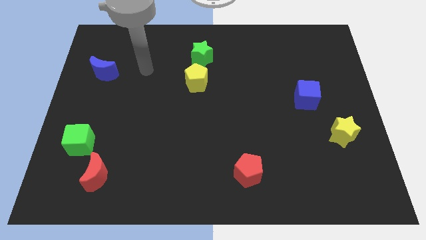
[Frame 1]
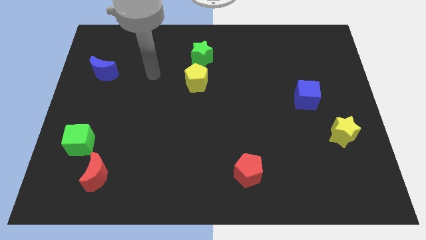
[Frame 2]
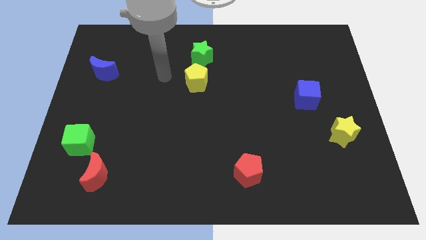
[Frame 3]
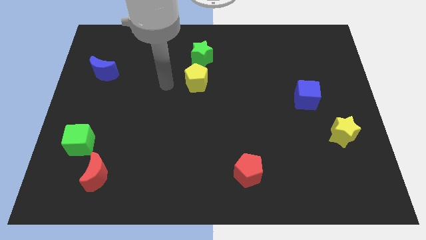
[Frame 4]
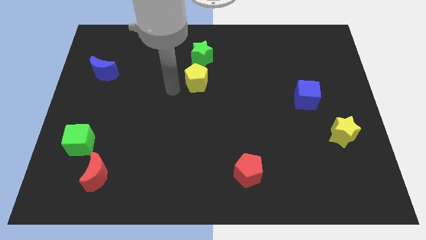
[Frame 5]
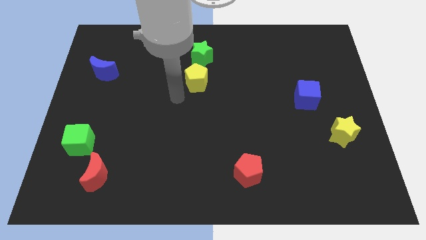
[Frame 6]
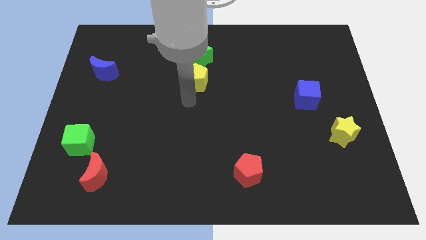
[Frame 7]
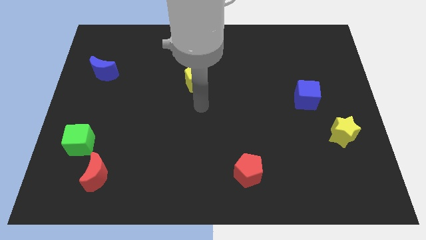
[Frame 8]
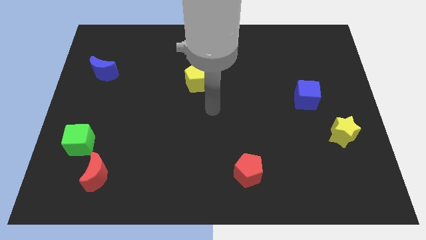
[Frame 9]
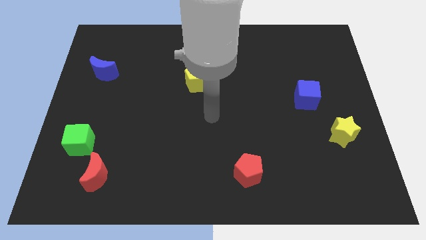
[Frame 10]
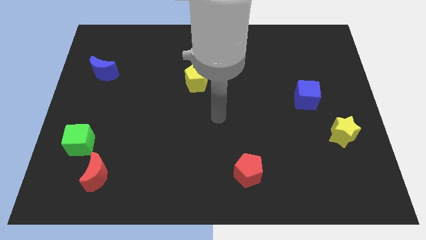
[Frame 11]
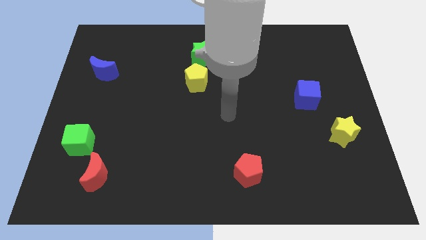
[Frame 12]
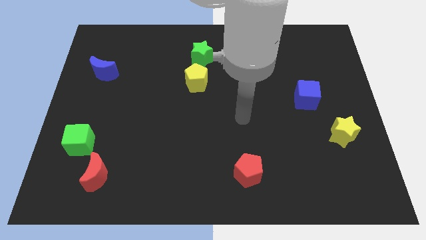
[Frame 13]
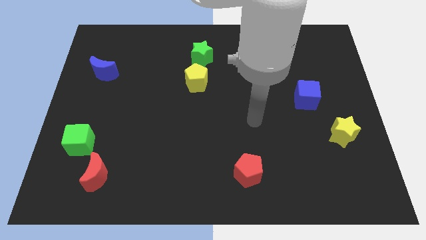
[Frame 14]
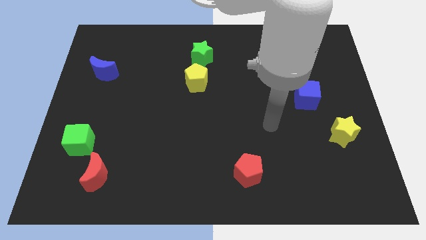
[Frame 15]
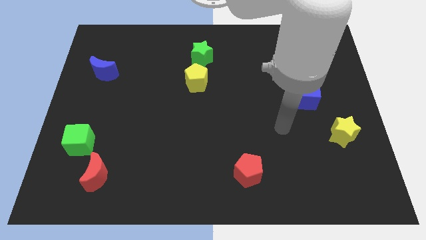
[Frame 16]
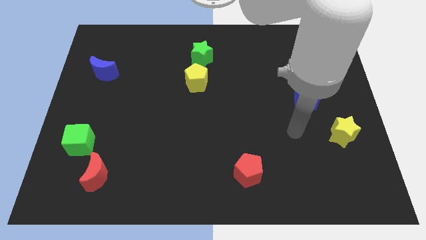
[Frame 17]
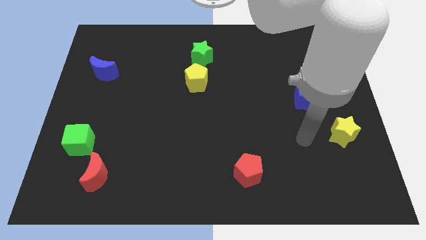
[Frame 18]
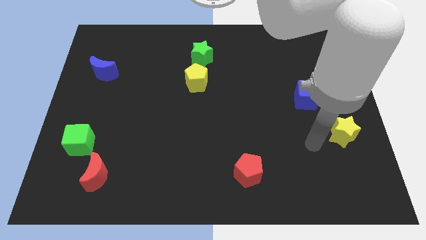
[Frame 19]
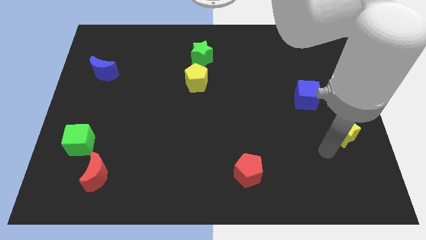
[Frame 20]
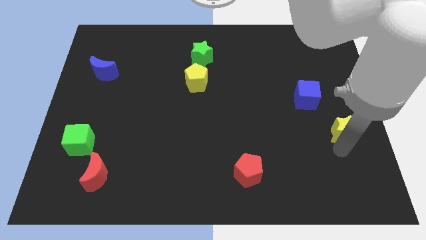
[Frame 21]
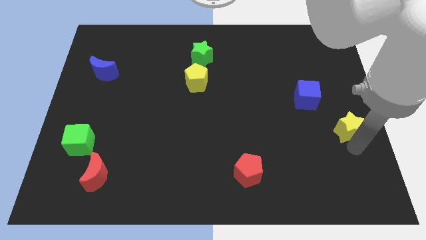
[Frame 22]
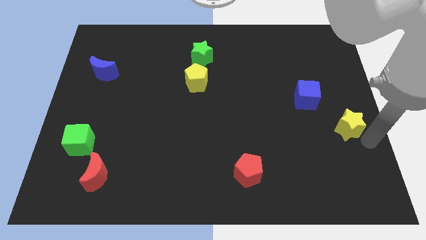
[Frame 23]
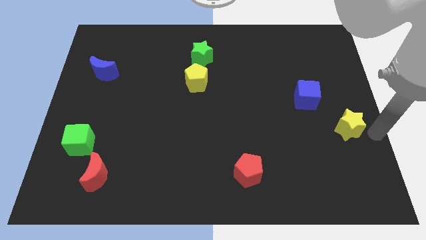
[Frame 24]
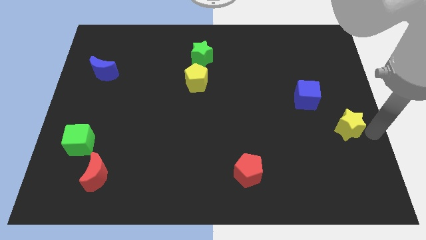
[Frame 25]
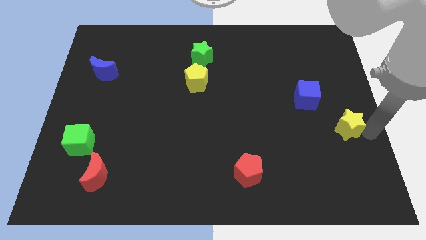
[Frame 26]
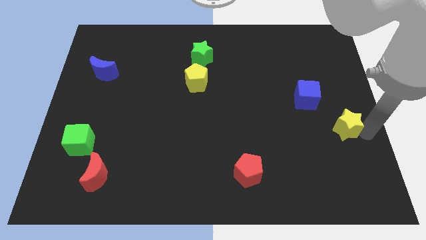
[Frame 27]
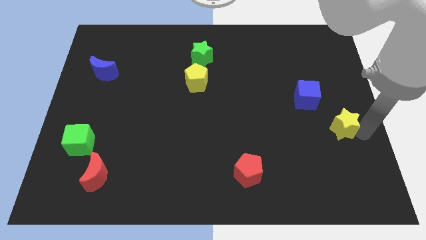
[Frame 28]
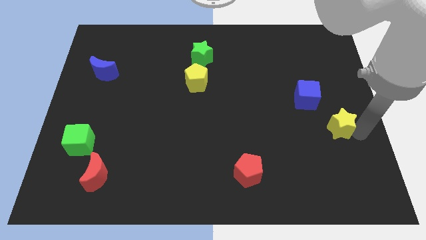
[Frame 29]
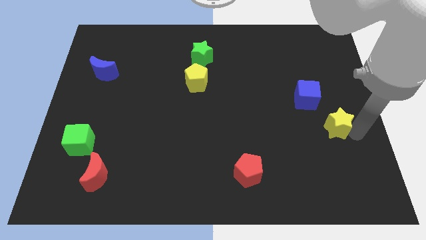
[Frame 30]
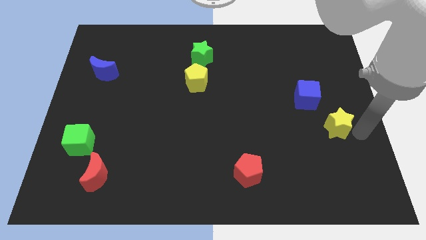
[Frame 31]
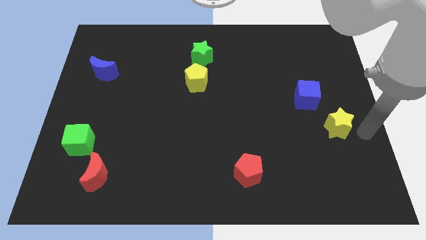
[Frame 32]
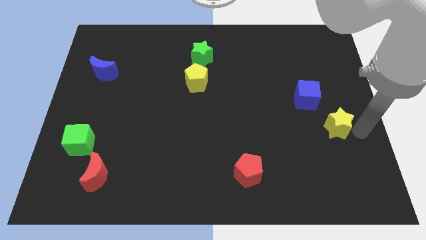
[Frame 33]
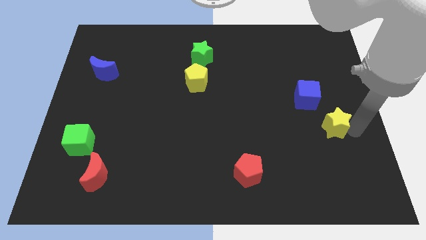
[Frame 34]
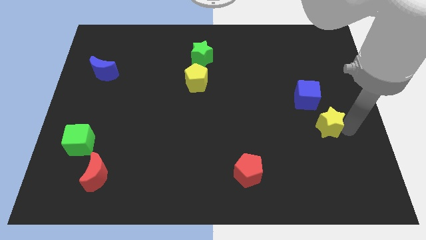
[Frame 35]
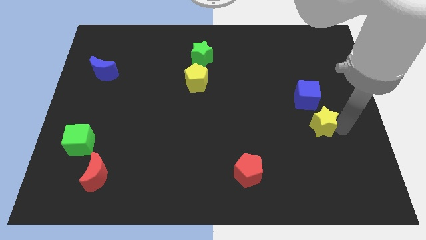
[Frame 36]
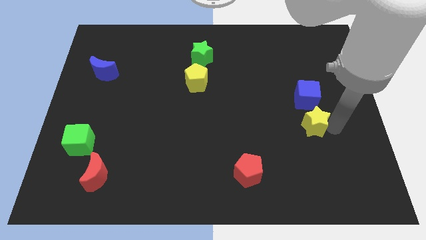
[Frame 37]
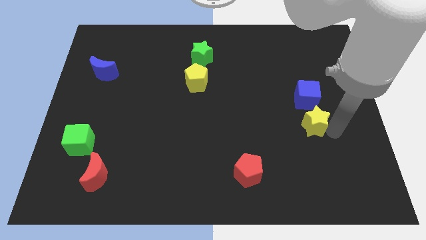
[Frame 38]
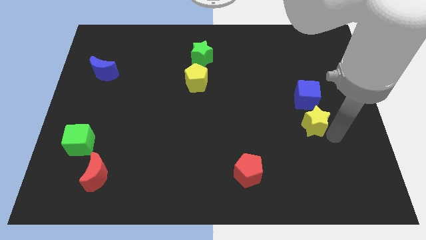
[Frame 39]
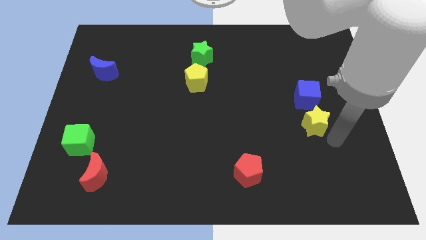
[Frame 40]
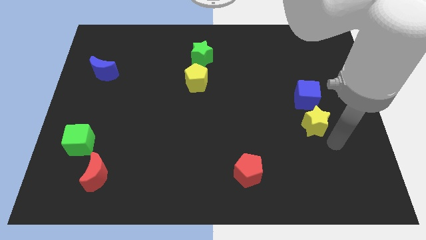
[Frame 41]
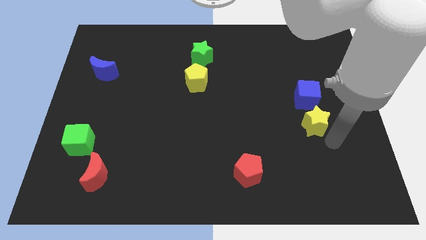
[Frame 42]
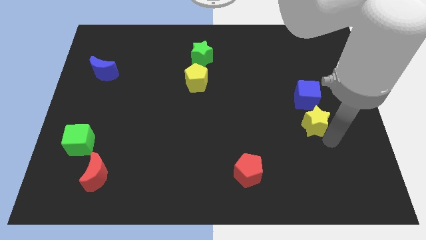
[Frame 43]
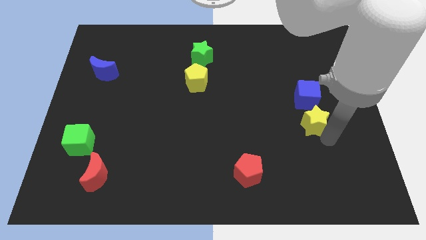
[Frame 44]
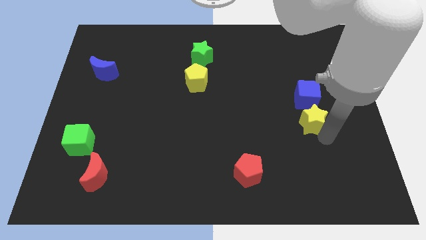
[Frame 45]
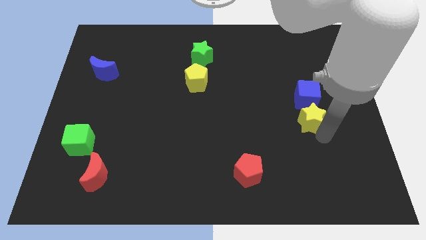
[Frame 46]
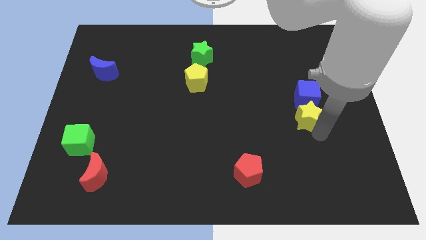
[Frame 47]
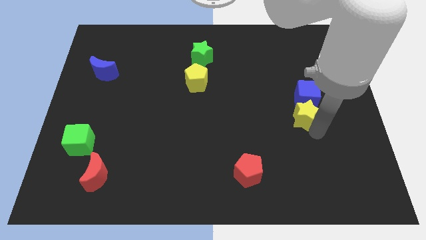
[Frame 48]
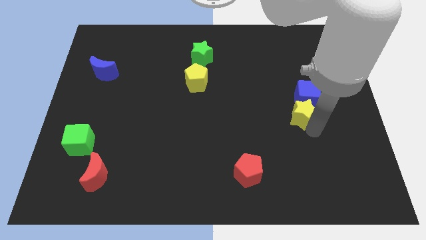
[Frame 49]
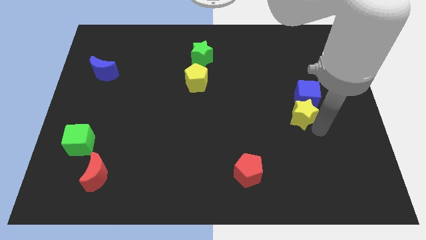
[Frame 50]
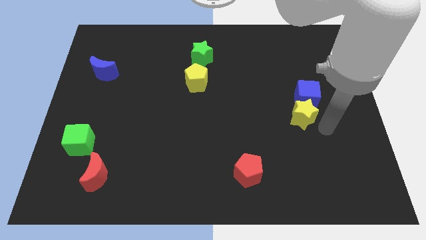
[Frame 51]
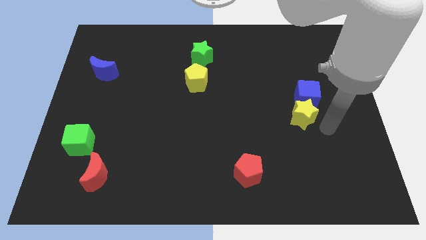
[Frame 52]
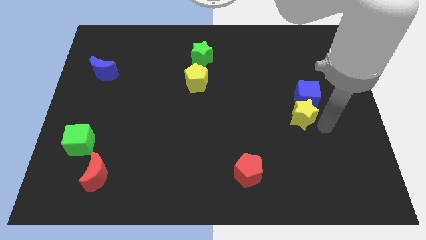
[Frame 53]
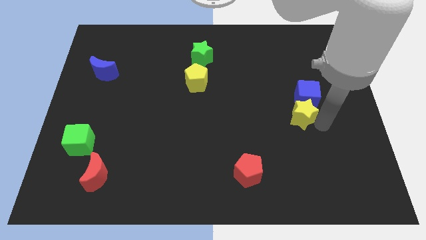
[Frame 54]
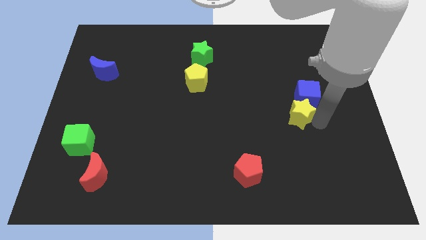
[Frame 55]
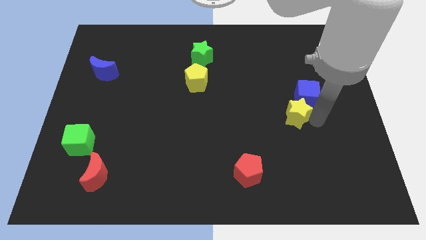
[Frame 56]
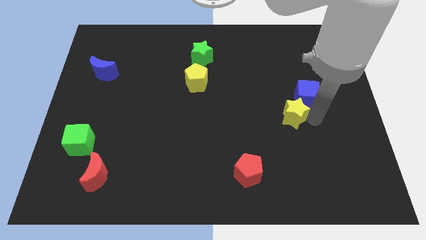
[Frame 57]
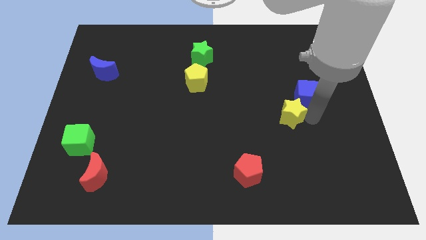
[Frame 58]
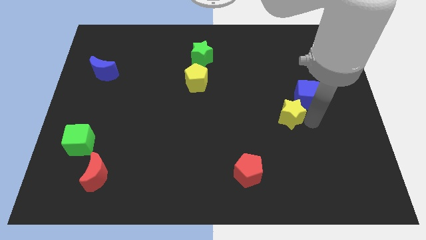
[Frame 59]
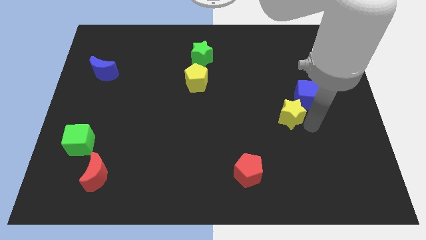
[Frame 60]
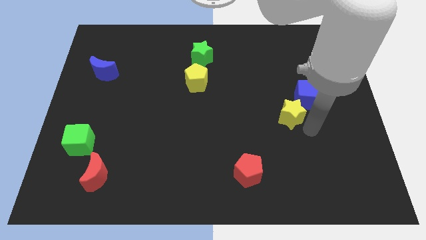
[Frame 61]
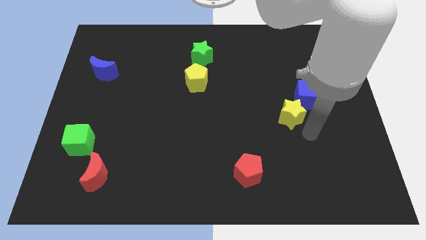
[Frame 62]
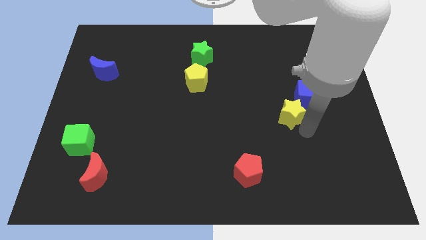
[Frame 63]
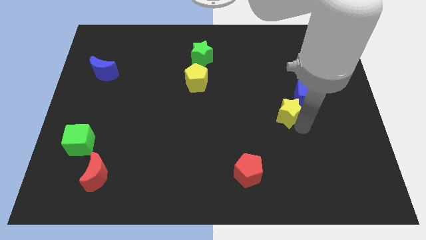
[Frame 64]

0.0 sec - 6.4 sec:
put the yellow star to the left of the blue cube

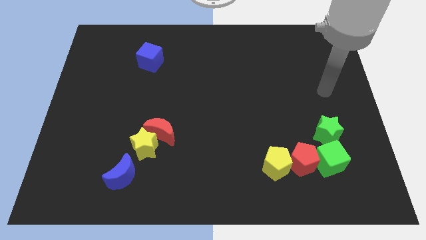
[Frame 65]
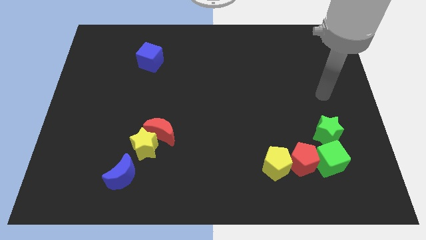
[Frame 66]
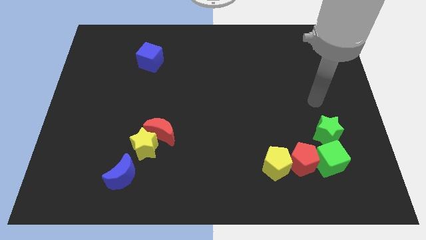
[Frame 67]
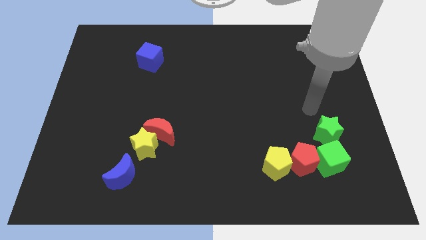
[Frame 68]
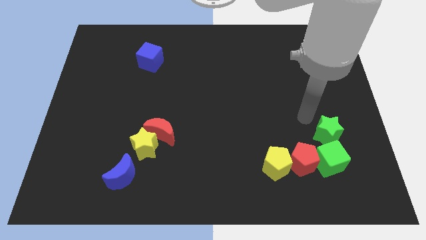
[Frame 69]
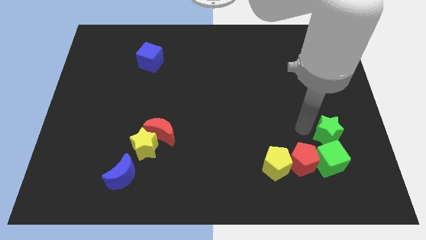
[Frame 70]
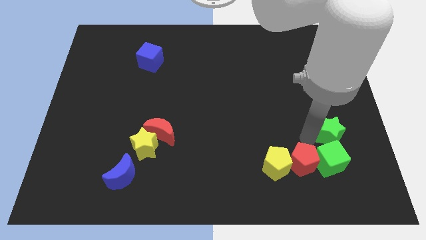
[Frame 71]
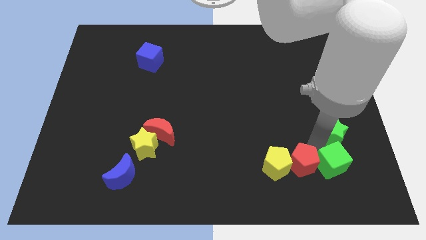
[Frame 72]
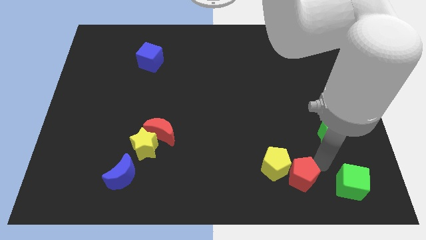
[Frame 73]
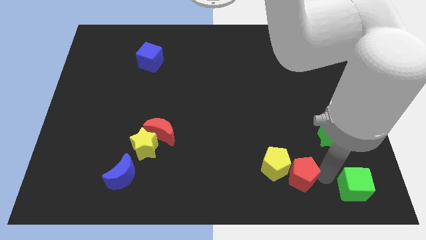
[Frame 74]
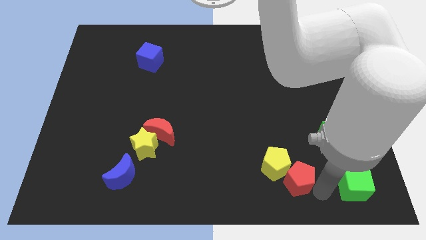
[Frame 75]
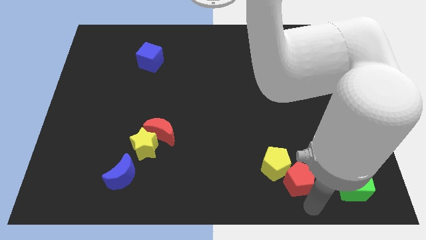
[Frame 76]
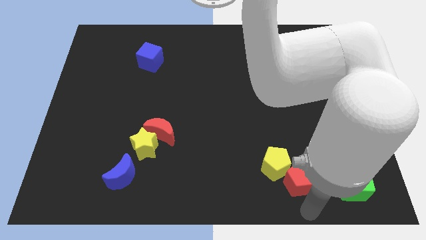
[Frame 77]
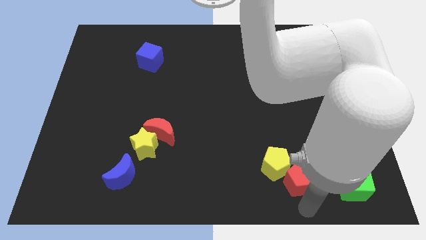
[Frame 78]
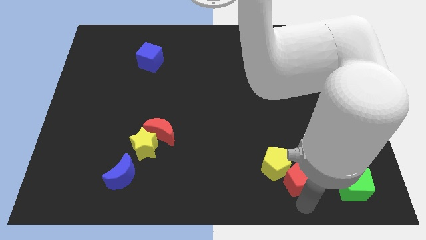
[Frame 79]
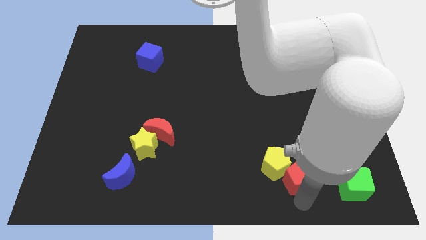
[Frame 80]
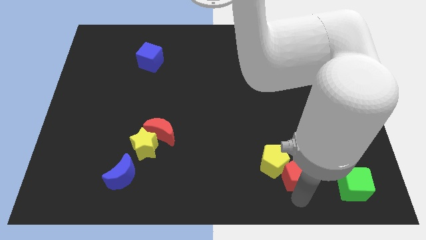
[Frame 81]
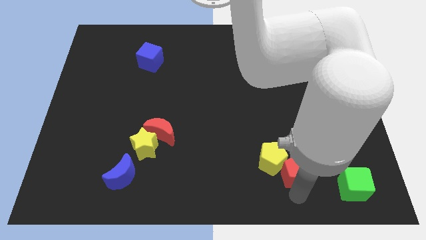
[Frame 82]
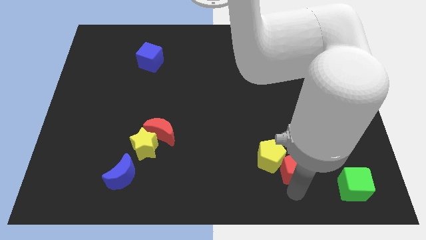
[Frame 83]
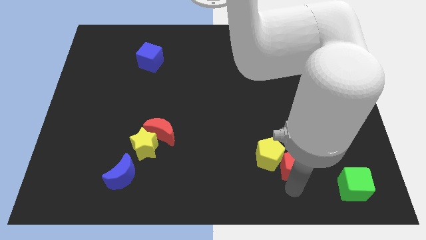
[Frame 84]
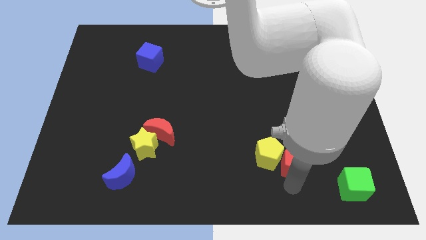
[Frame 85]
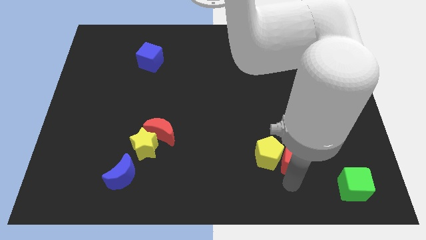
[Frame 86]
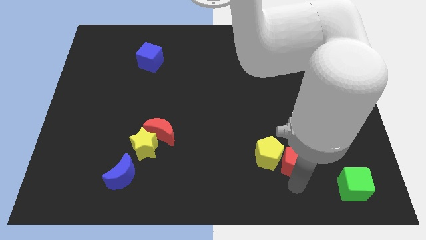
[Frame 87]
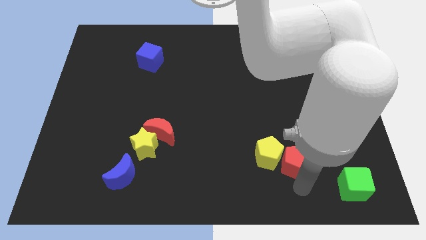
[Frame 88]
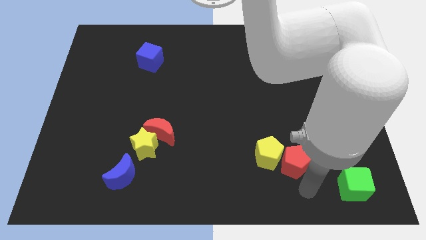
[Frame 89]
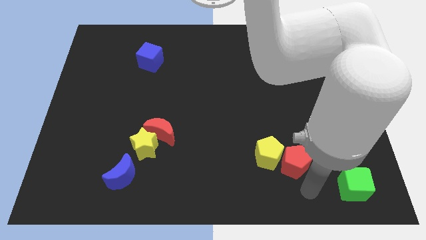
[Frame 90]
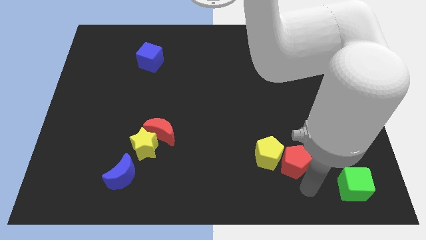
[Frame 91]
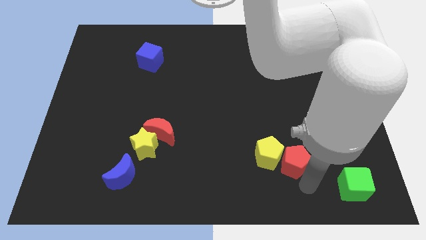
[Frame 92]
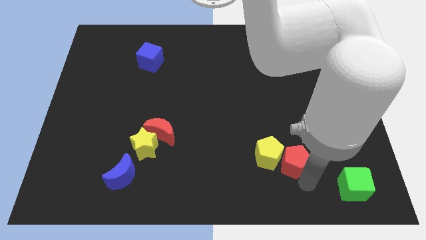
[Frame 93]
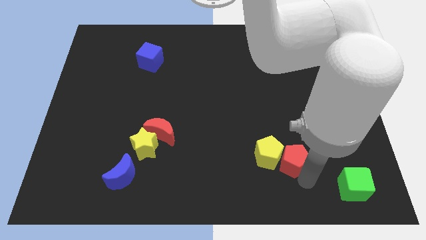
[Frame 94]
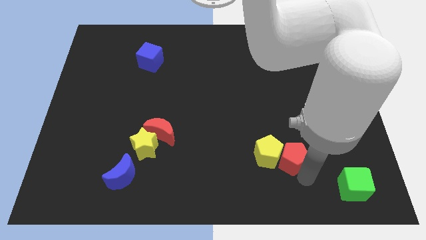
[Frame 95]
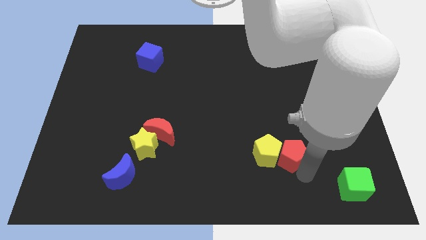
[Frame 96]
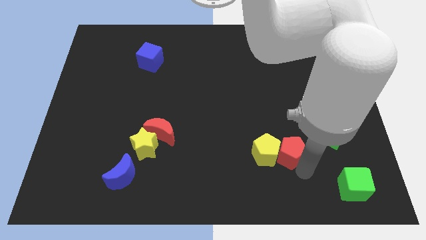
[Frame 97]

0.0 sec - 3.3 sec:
move the red pentagon left of the green star
